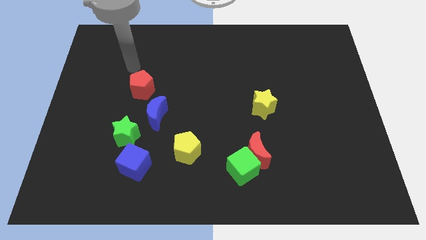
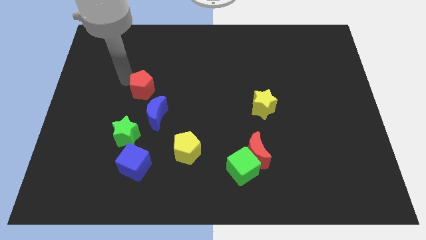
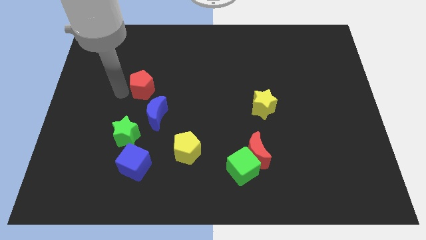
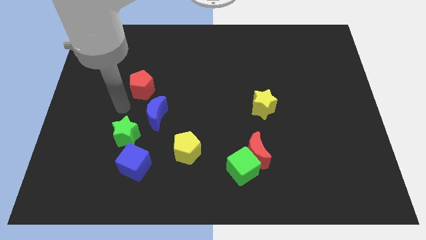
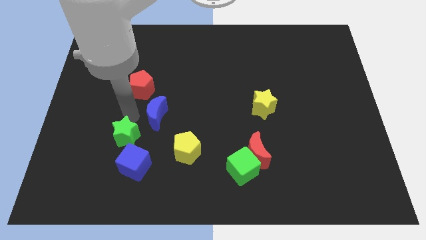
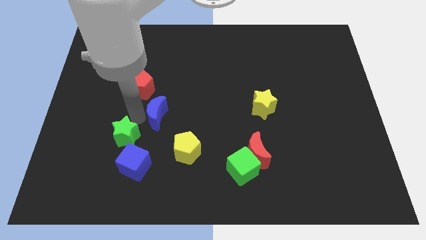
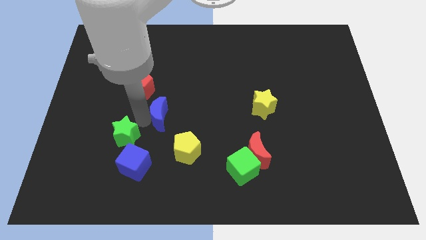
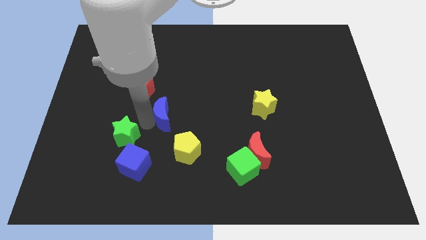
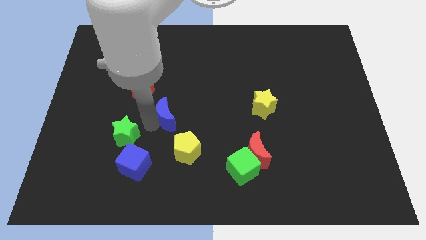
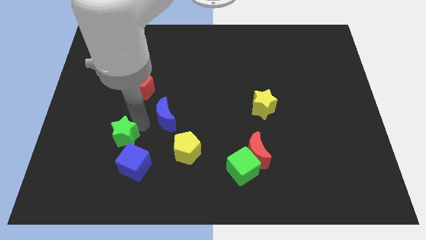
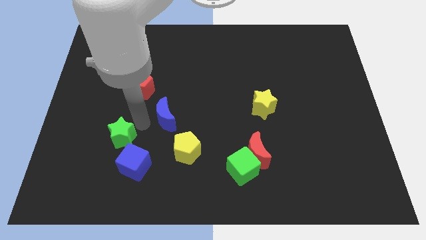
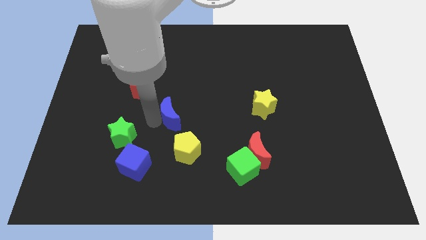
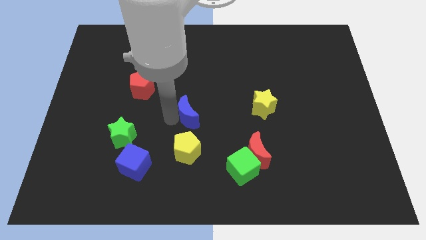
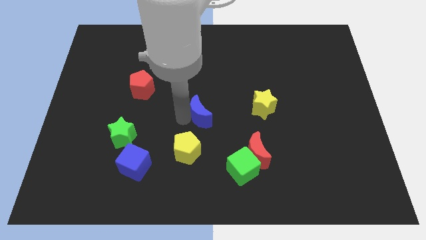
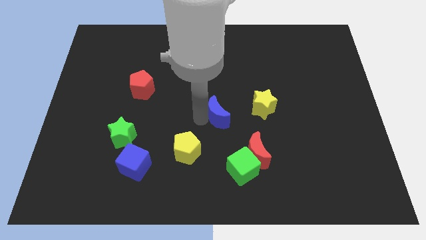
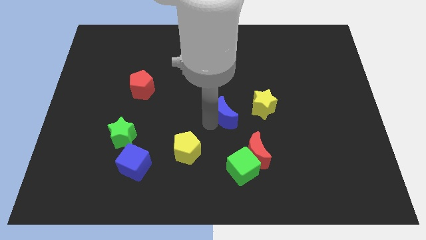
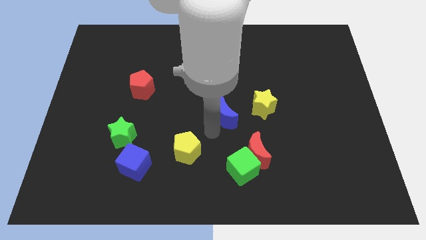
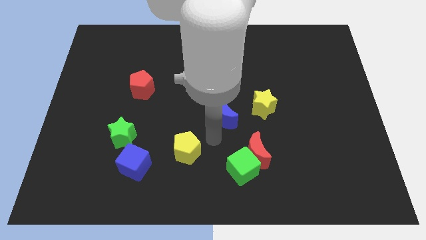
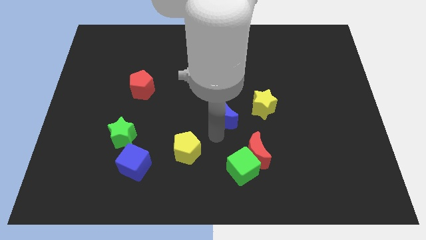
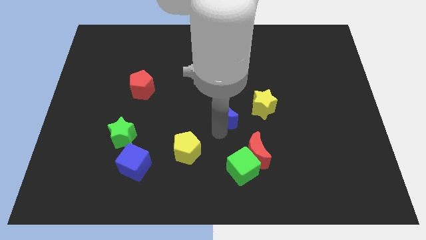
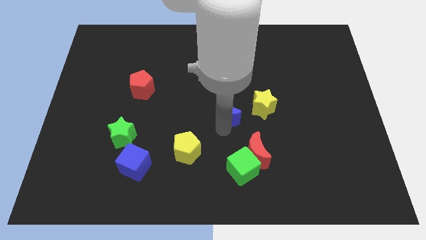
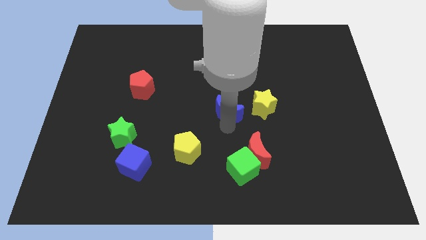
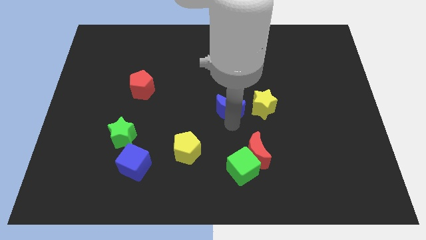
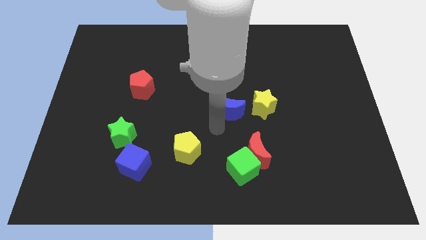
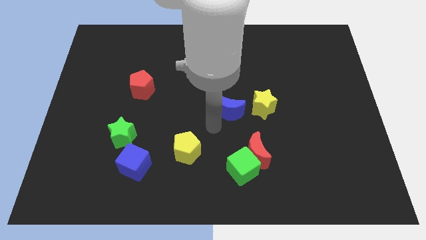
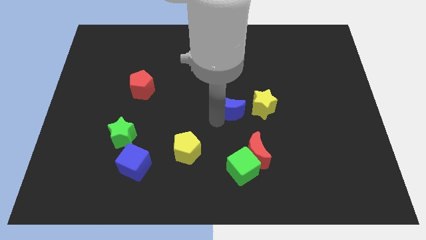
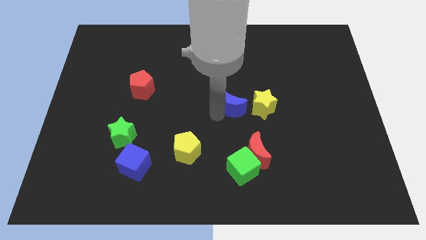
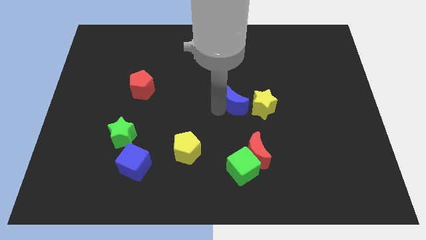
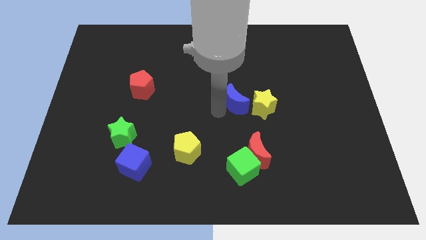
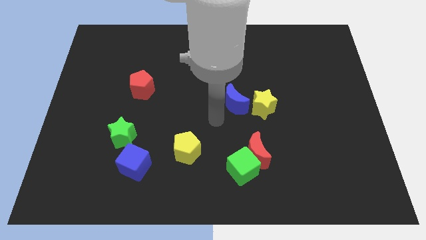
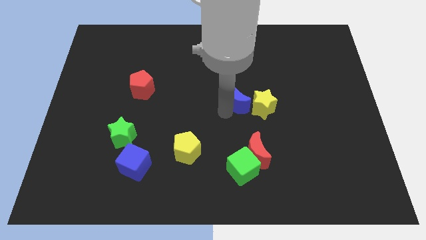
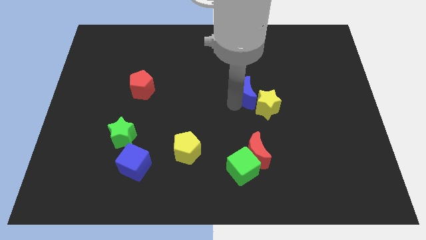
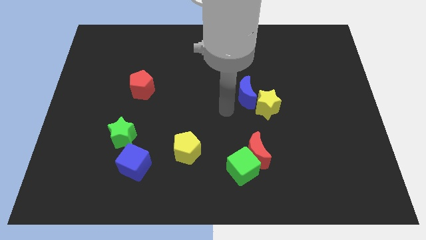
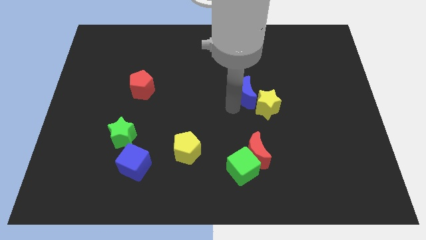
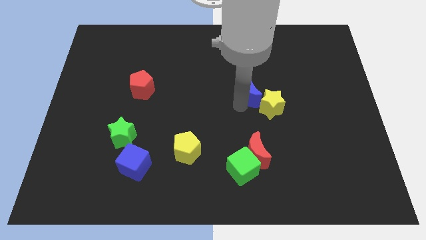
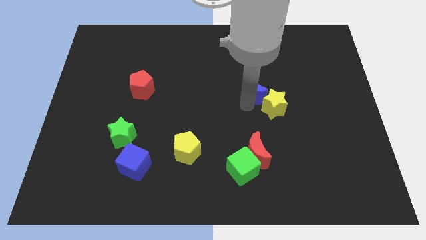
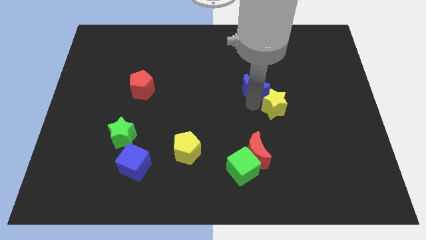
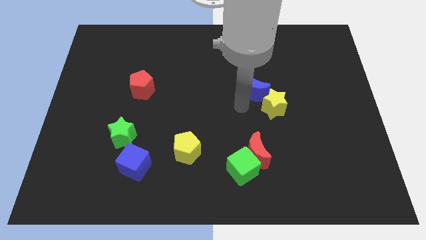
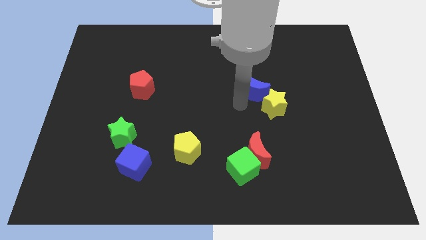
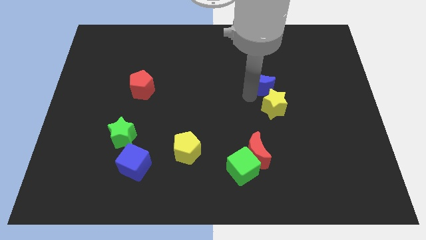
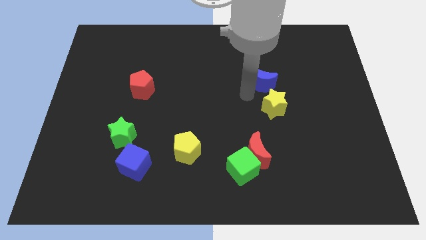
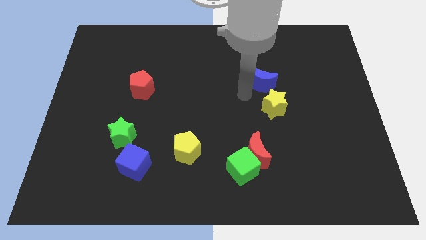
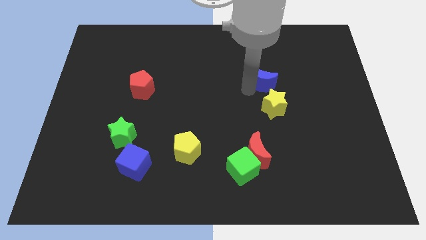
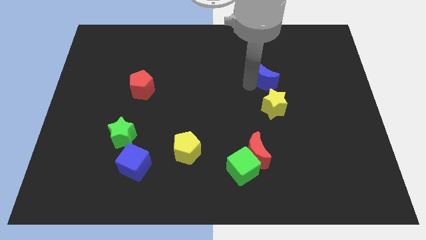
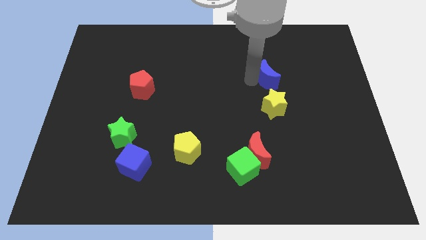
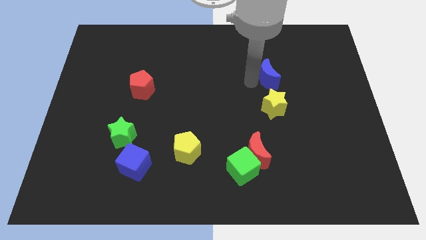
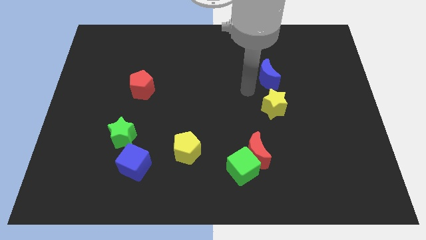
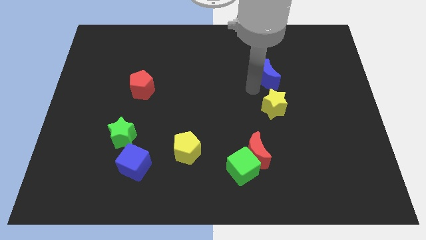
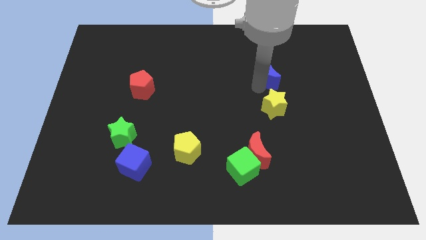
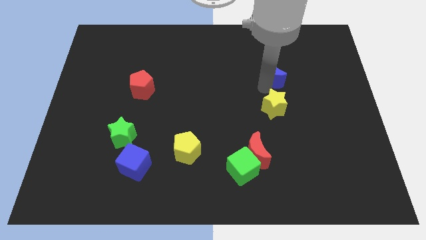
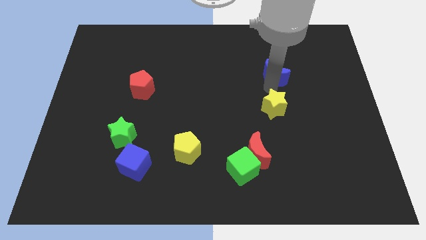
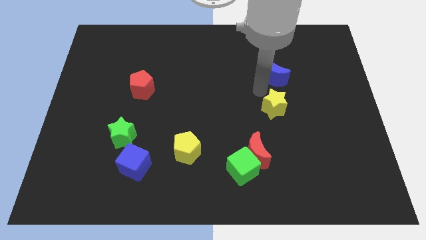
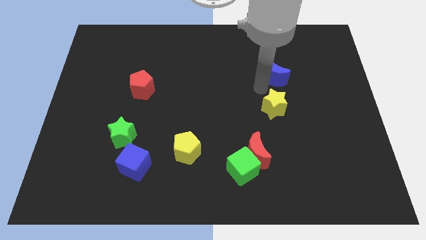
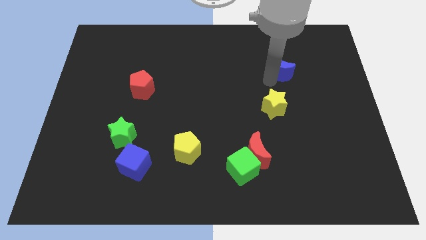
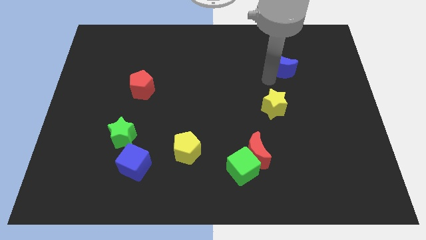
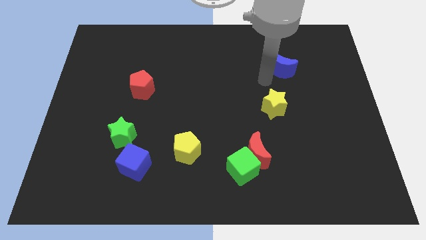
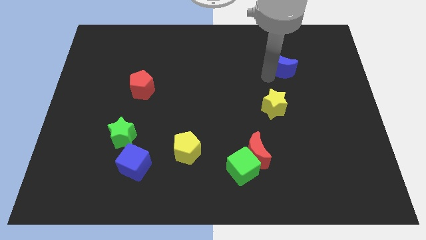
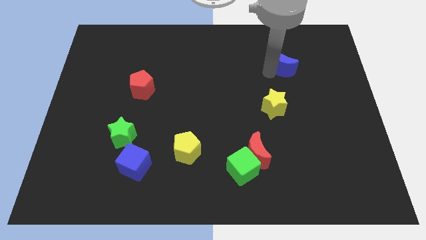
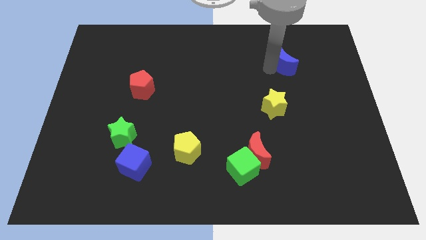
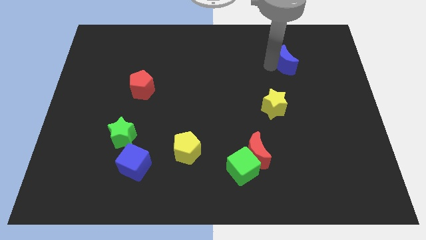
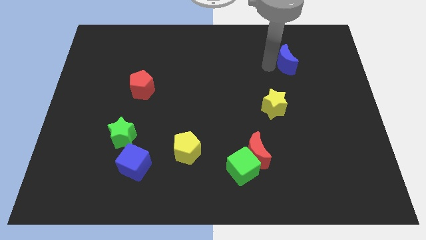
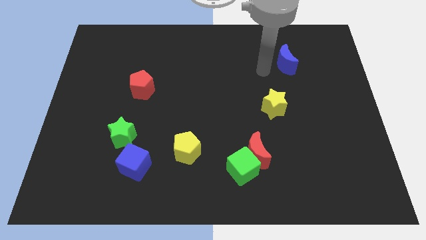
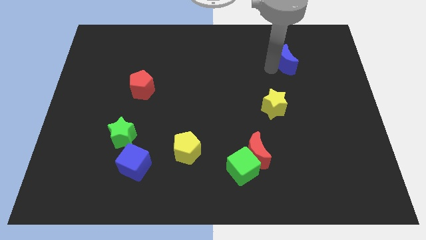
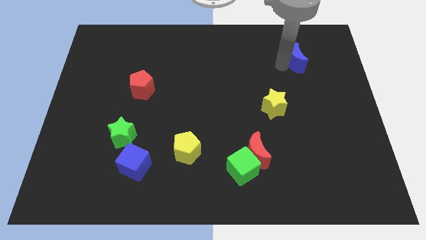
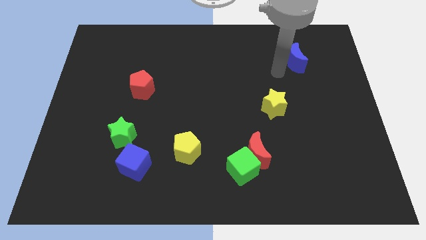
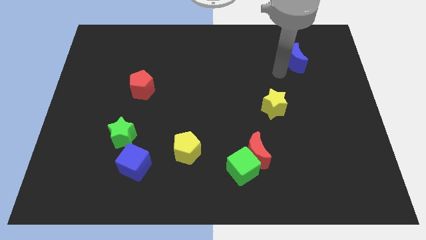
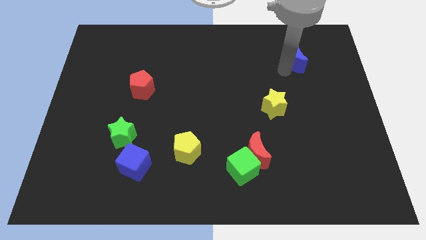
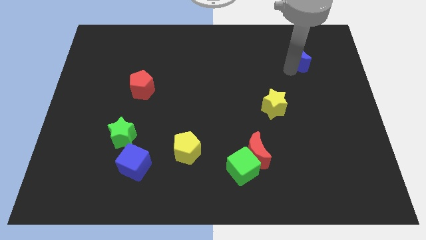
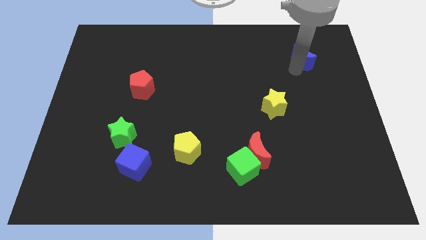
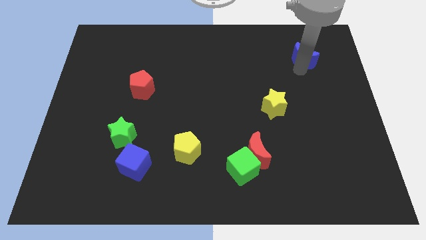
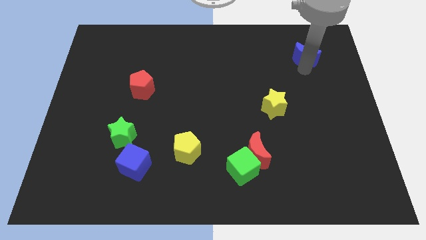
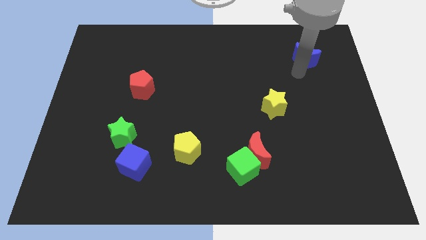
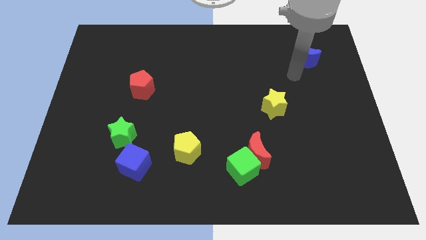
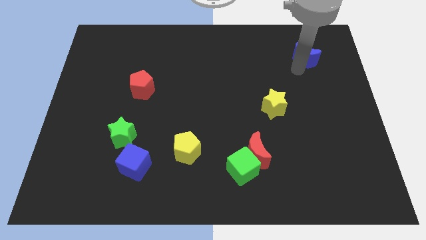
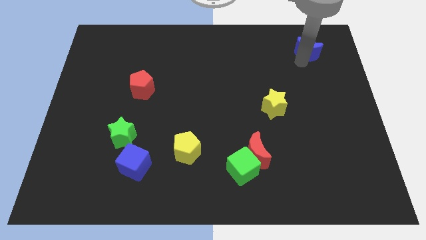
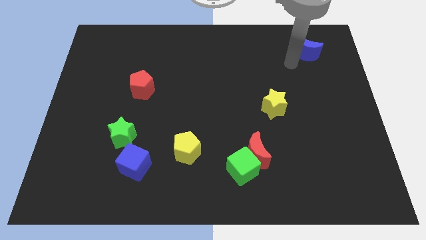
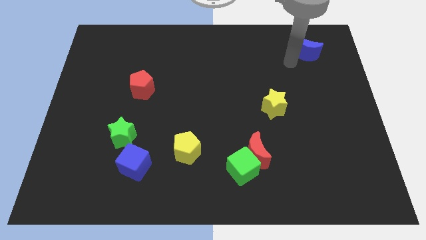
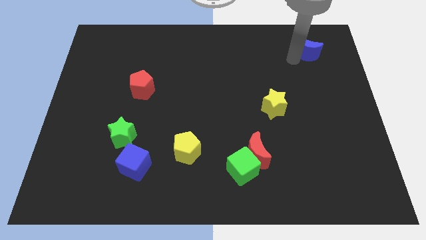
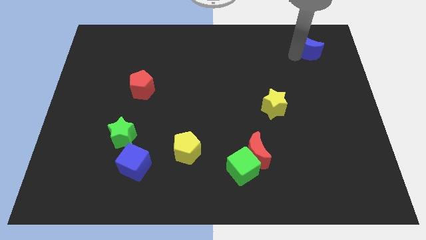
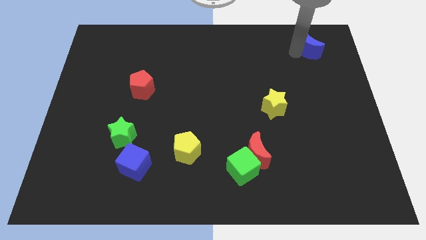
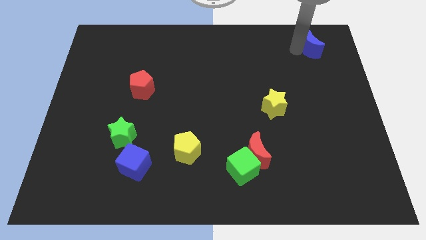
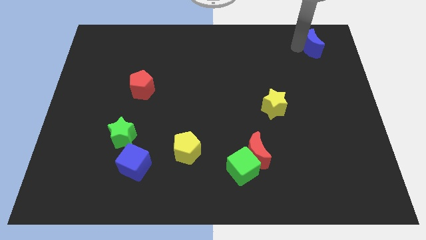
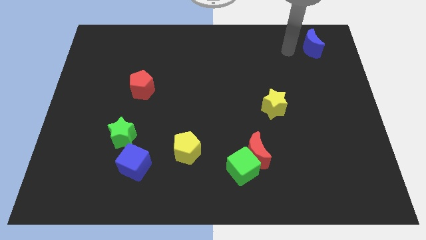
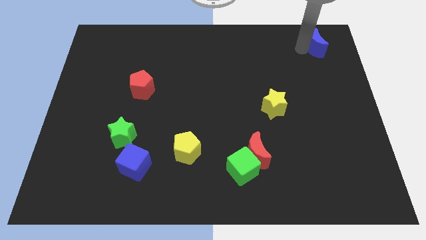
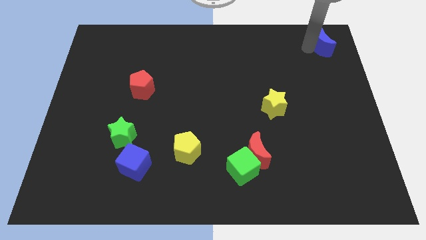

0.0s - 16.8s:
push the blue moon to the top right corner
